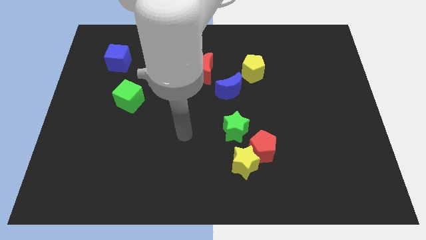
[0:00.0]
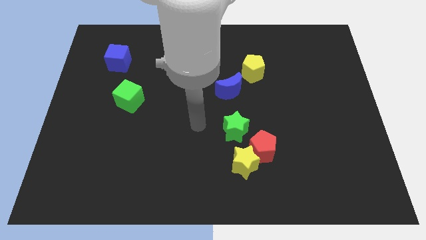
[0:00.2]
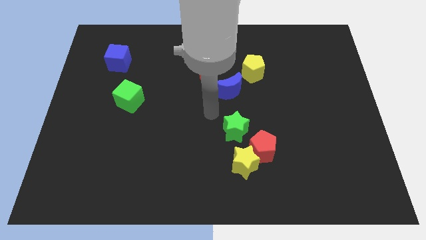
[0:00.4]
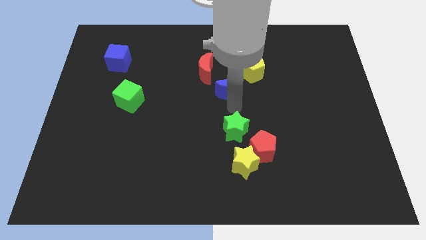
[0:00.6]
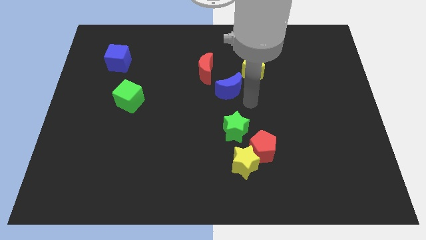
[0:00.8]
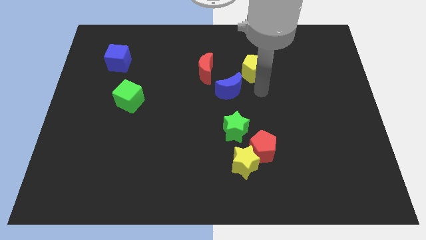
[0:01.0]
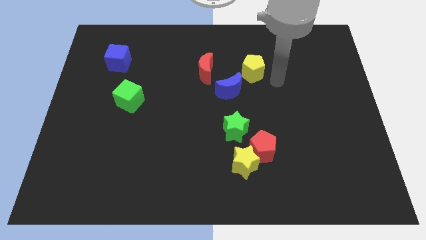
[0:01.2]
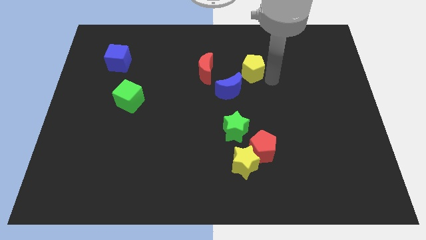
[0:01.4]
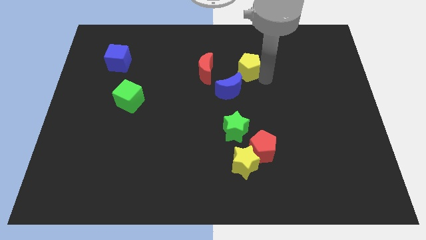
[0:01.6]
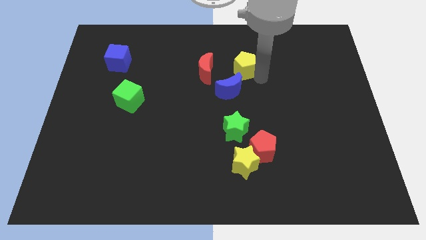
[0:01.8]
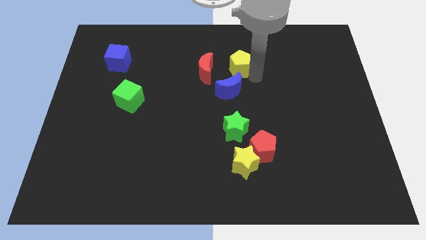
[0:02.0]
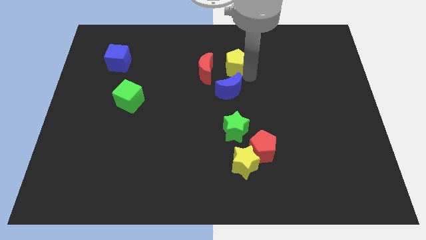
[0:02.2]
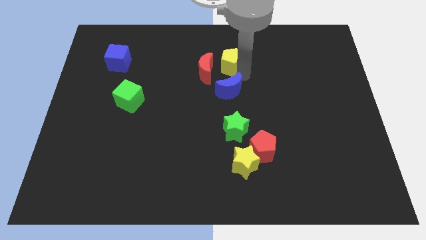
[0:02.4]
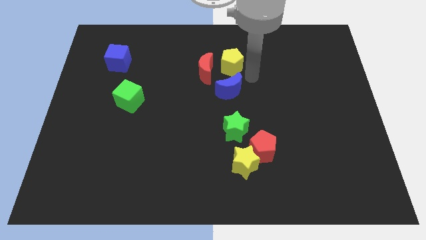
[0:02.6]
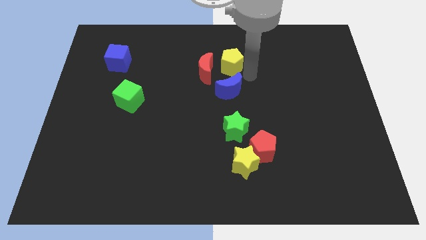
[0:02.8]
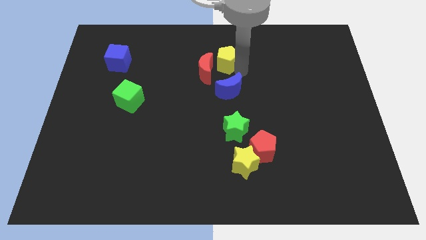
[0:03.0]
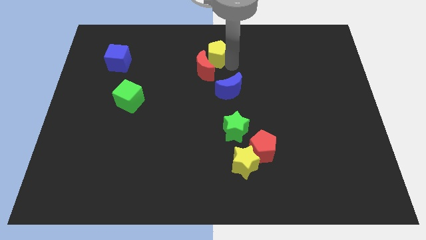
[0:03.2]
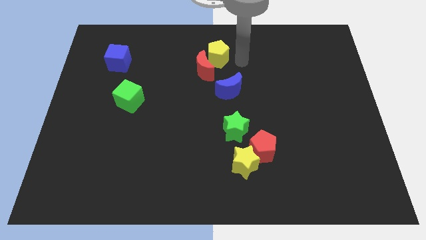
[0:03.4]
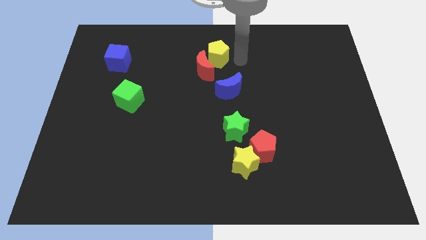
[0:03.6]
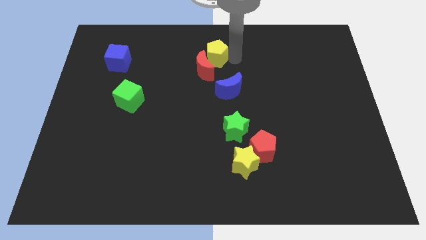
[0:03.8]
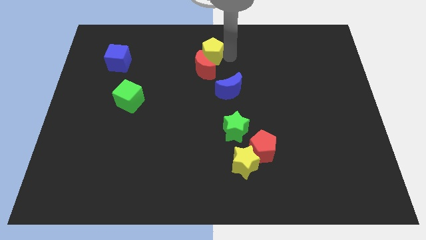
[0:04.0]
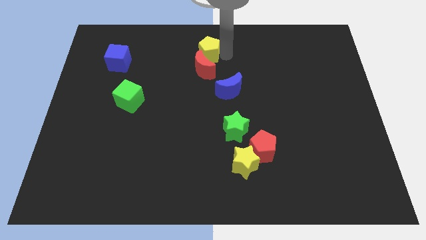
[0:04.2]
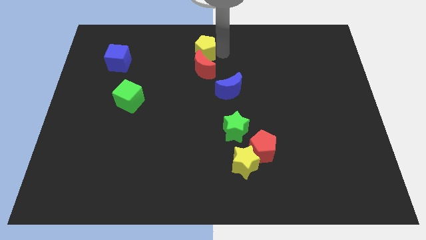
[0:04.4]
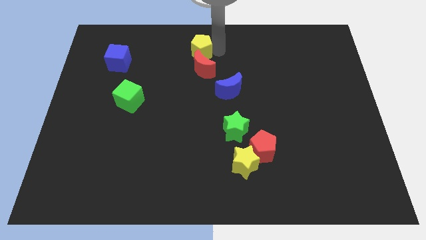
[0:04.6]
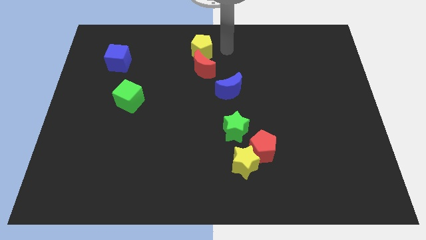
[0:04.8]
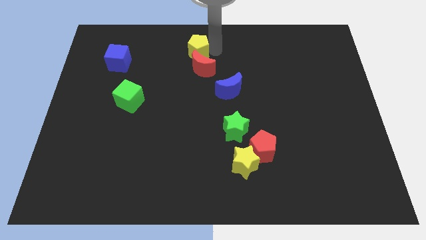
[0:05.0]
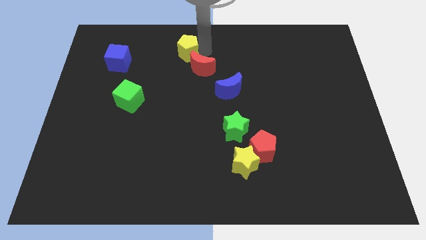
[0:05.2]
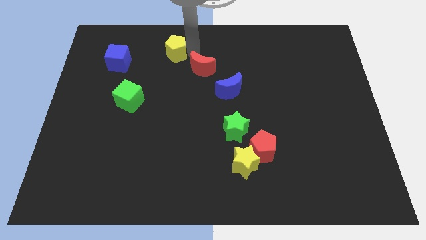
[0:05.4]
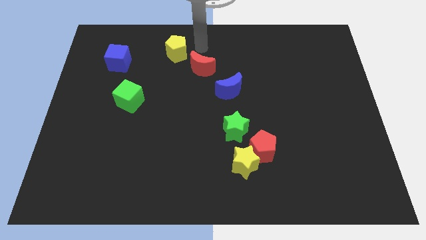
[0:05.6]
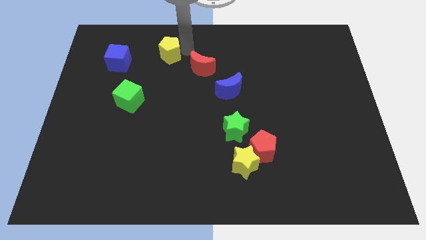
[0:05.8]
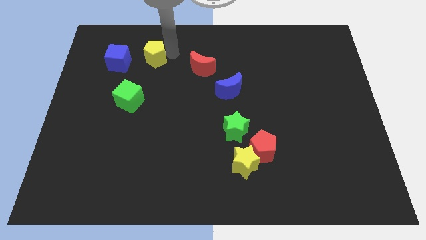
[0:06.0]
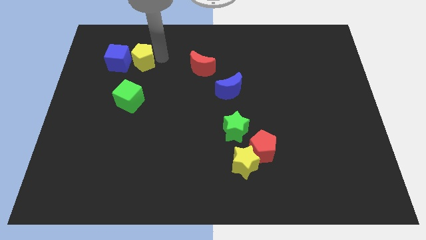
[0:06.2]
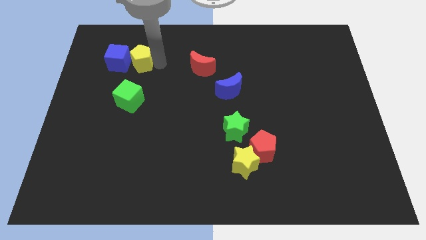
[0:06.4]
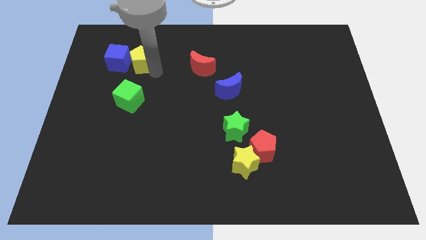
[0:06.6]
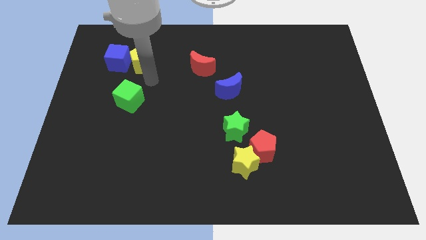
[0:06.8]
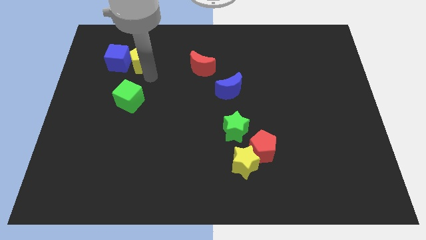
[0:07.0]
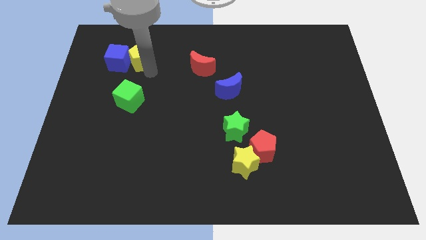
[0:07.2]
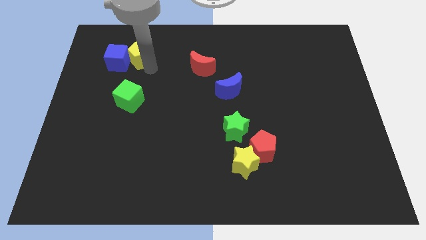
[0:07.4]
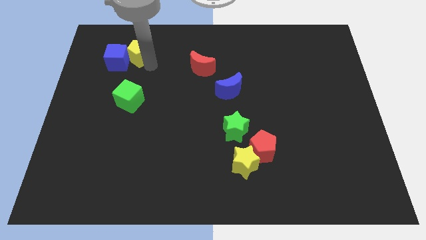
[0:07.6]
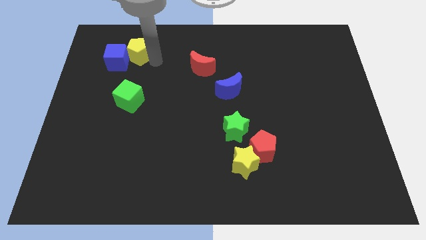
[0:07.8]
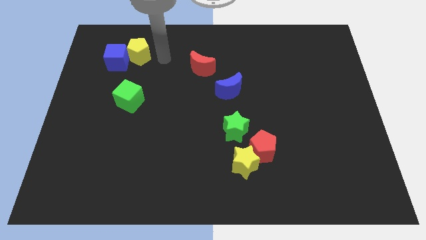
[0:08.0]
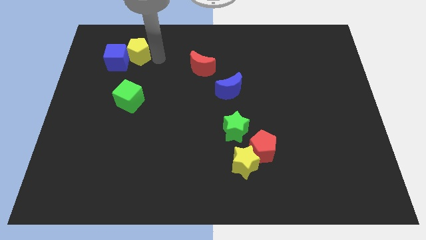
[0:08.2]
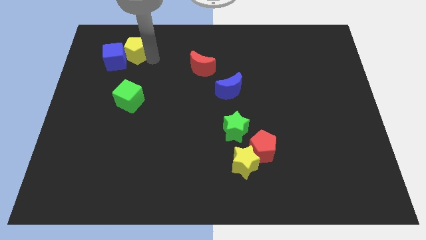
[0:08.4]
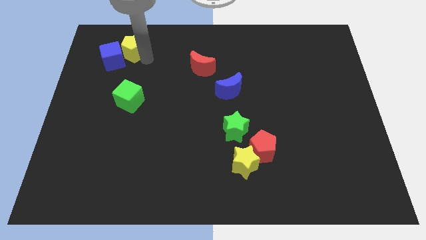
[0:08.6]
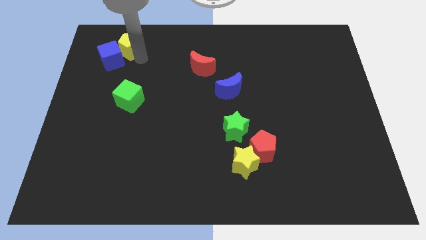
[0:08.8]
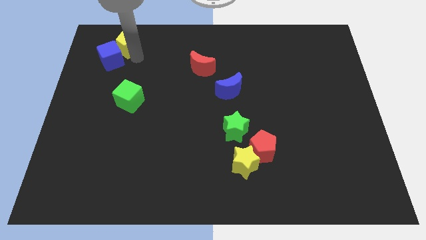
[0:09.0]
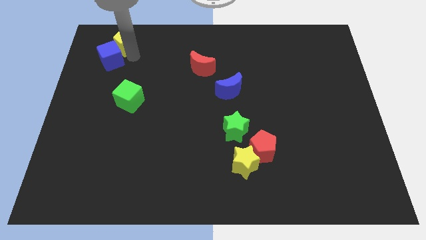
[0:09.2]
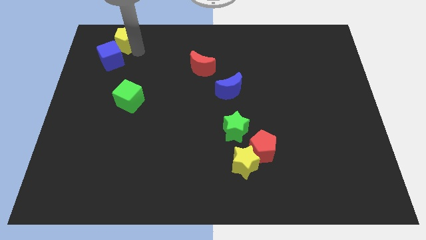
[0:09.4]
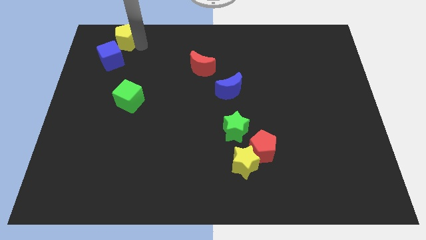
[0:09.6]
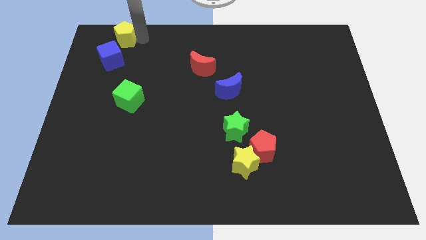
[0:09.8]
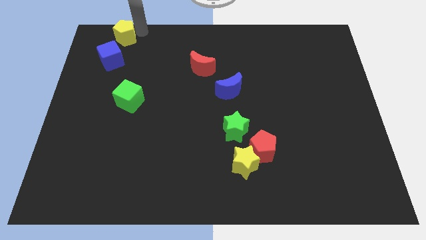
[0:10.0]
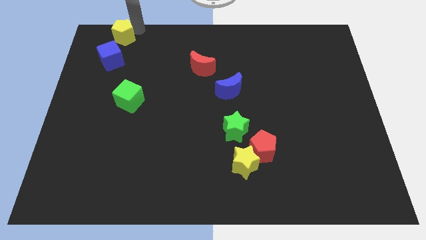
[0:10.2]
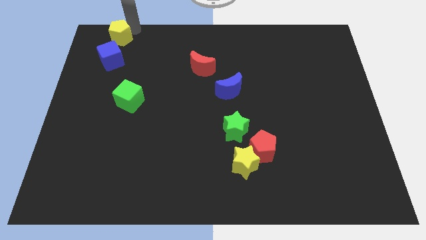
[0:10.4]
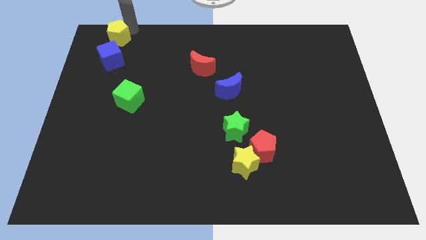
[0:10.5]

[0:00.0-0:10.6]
move the yellow pentagon to the top left

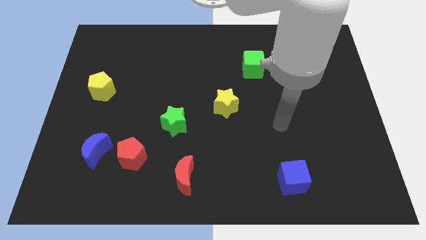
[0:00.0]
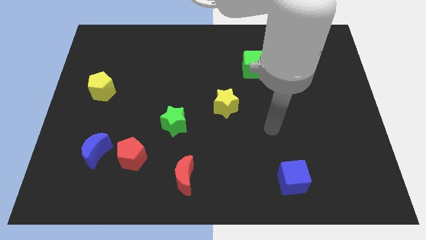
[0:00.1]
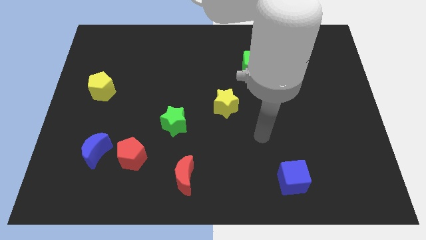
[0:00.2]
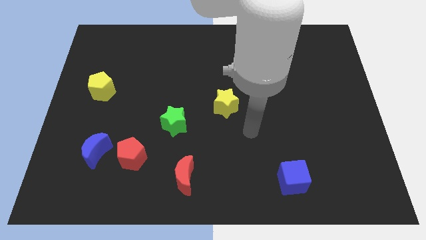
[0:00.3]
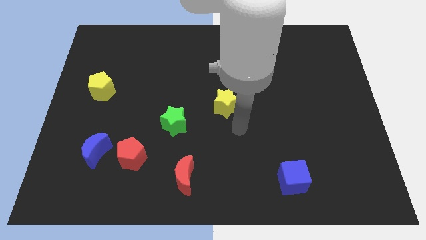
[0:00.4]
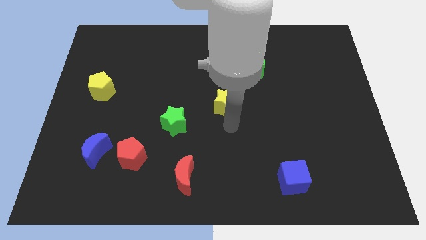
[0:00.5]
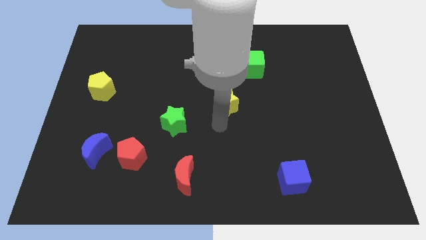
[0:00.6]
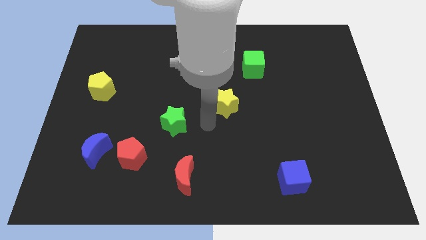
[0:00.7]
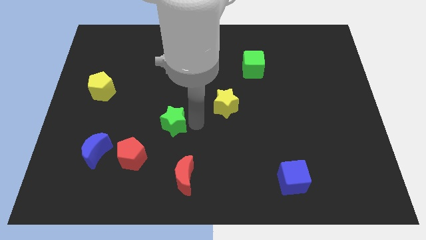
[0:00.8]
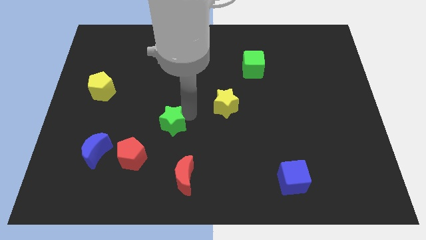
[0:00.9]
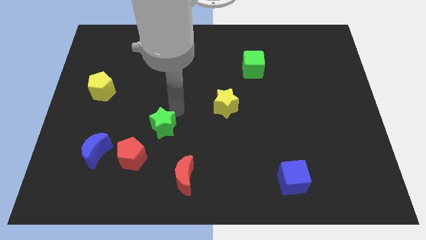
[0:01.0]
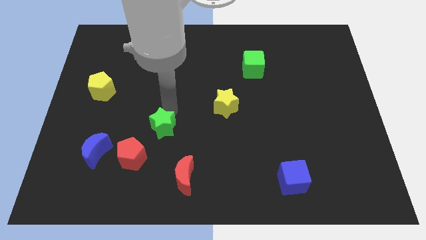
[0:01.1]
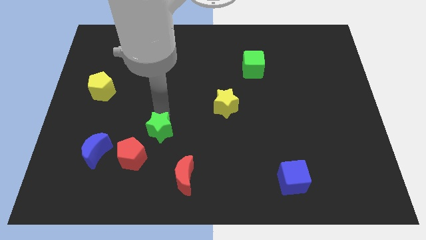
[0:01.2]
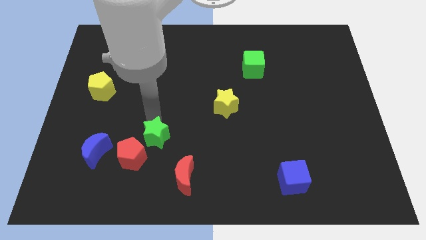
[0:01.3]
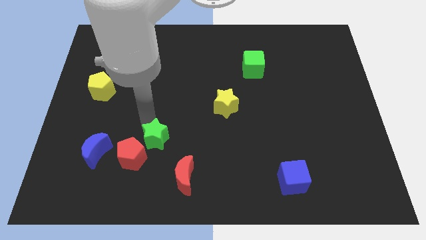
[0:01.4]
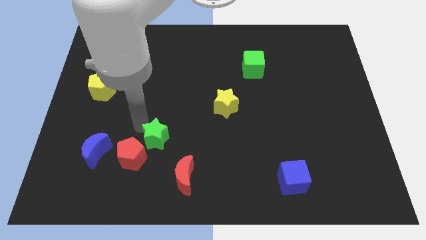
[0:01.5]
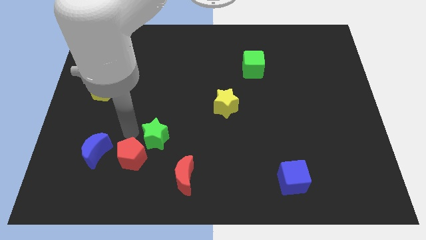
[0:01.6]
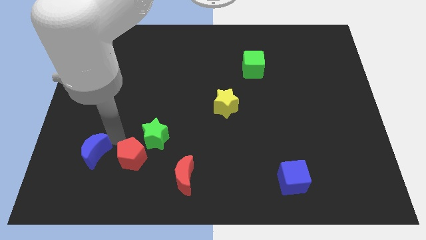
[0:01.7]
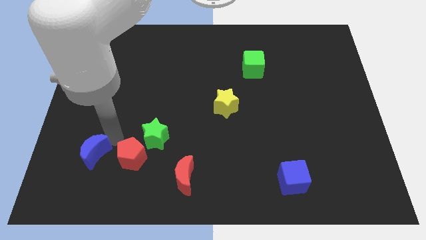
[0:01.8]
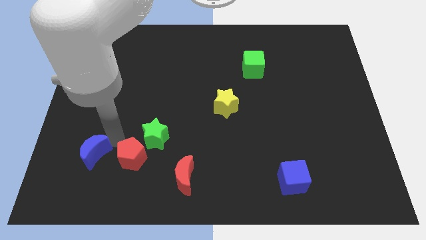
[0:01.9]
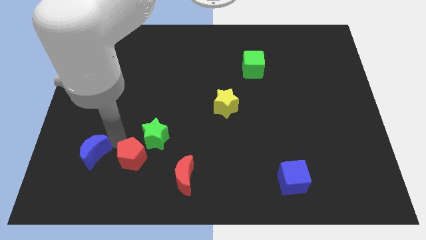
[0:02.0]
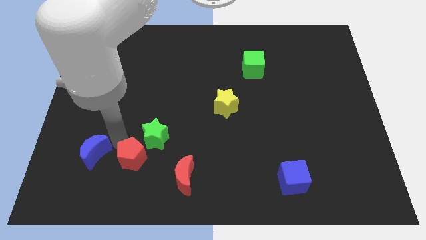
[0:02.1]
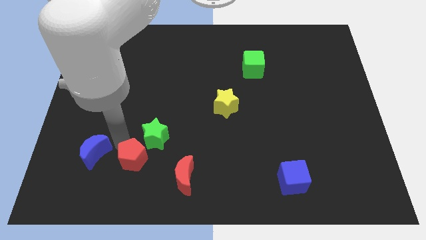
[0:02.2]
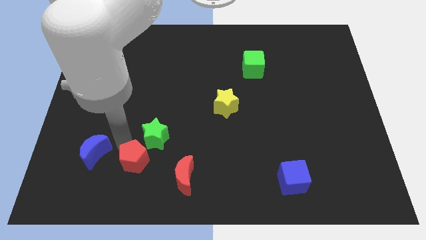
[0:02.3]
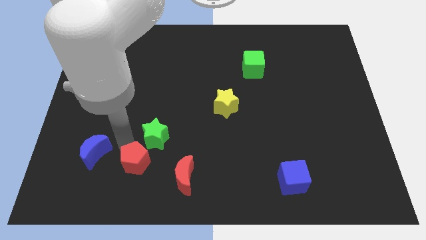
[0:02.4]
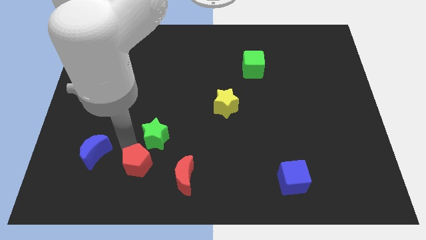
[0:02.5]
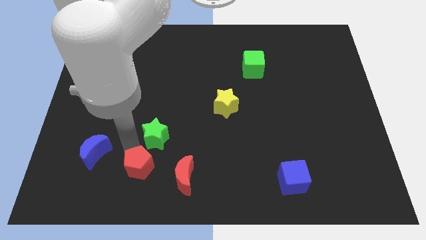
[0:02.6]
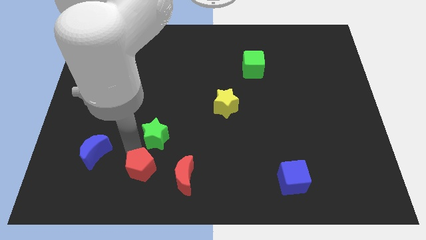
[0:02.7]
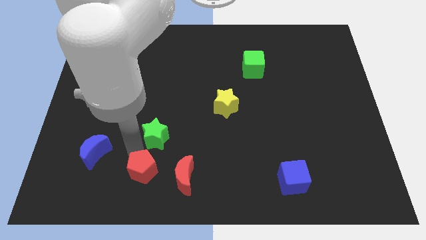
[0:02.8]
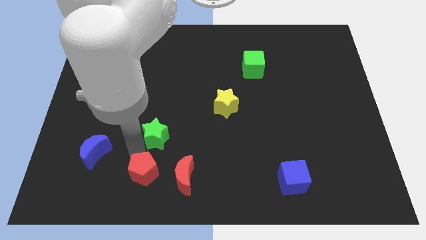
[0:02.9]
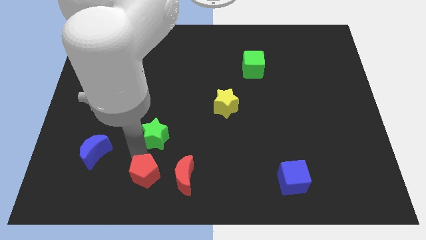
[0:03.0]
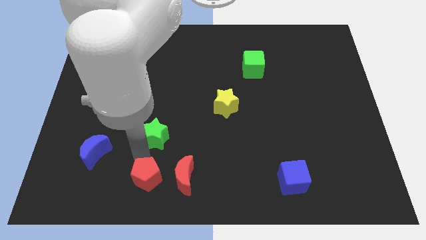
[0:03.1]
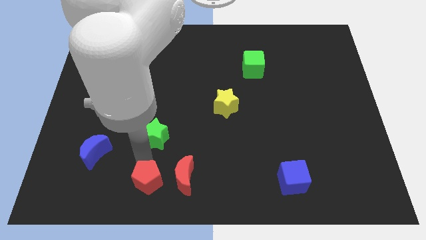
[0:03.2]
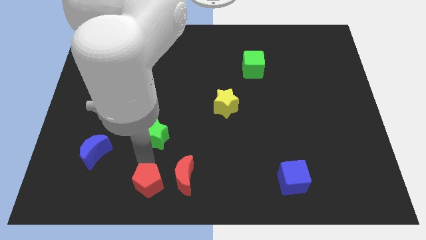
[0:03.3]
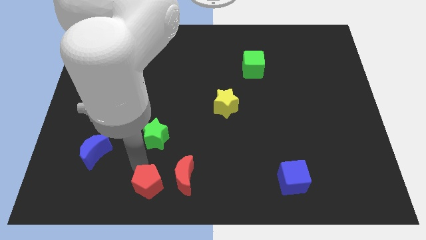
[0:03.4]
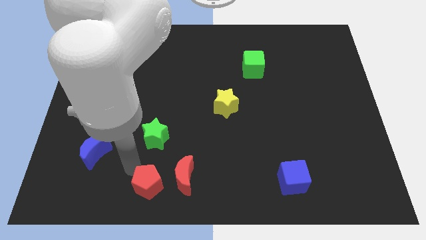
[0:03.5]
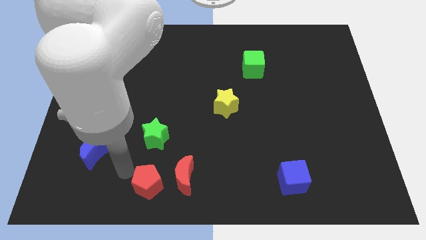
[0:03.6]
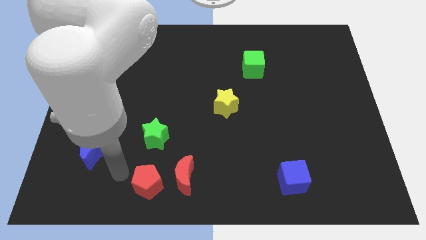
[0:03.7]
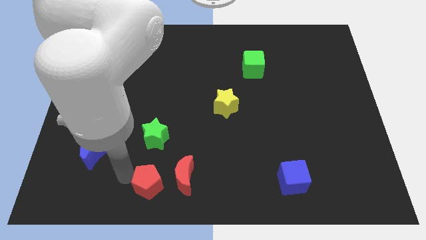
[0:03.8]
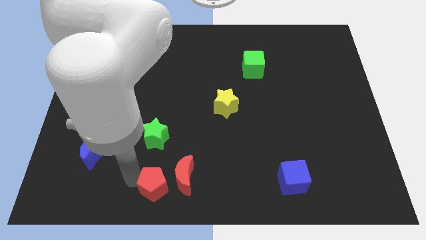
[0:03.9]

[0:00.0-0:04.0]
slide the red pentagon to the bottom side
